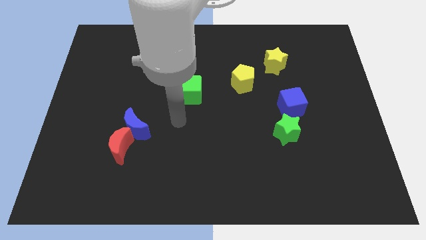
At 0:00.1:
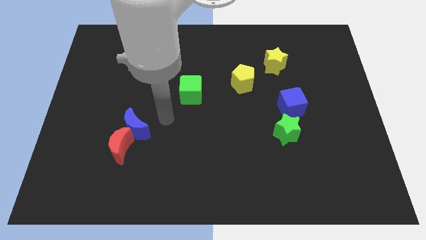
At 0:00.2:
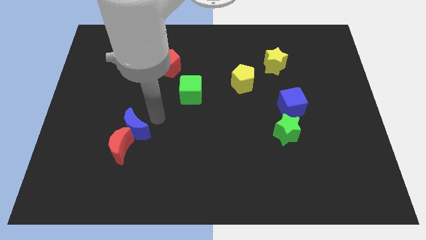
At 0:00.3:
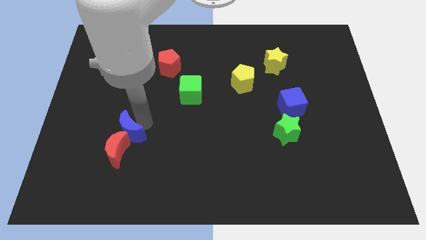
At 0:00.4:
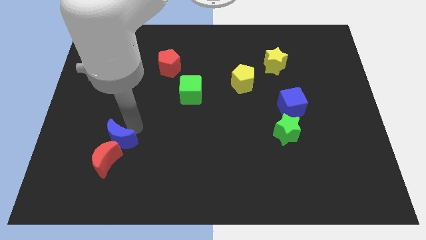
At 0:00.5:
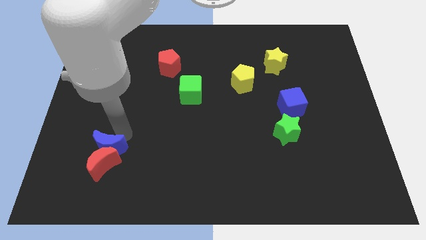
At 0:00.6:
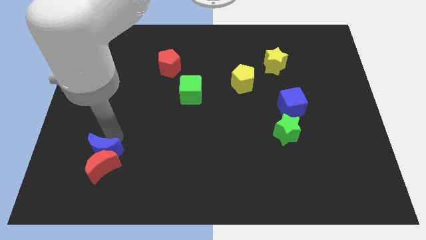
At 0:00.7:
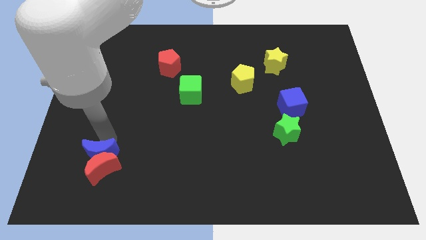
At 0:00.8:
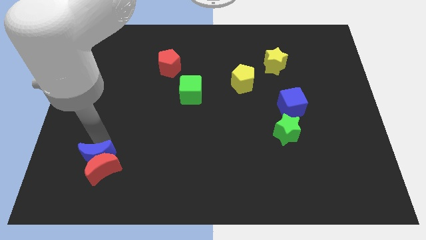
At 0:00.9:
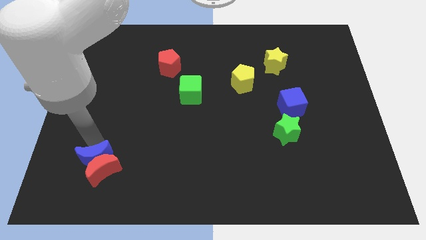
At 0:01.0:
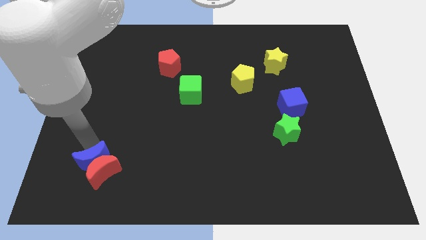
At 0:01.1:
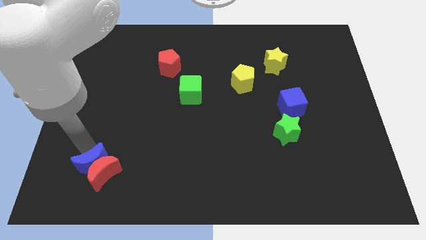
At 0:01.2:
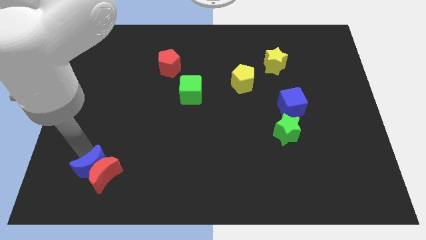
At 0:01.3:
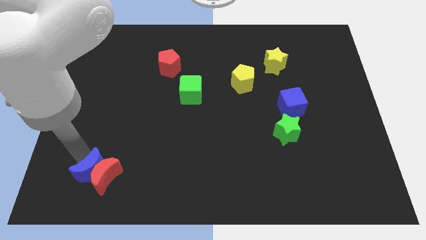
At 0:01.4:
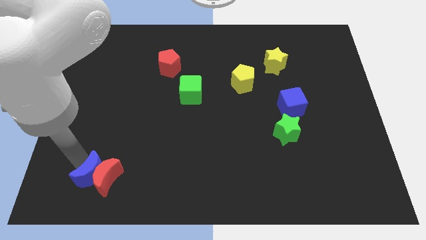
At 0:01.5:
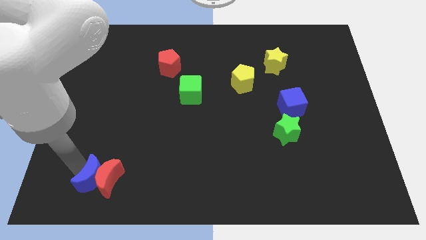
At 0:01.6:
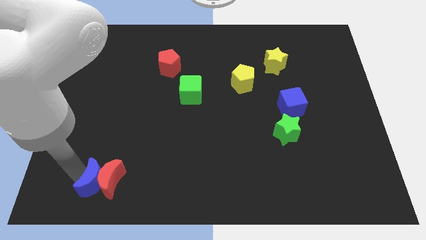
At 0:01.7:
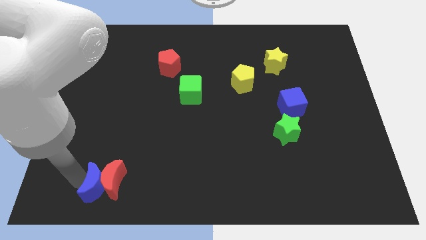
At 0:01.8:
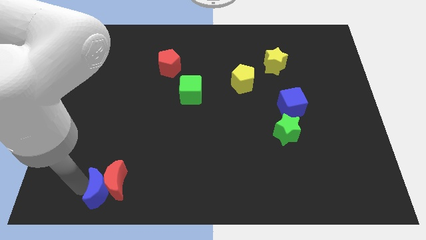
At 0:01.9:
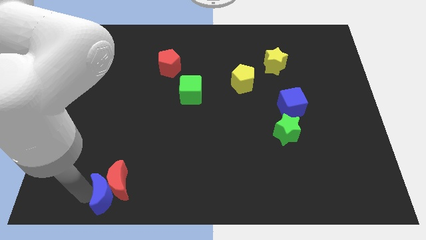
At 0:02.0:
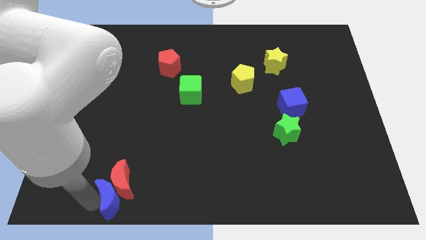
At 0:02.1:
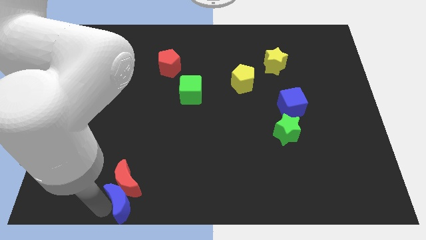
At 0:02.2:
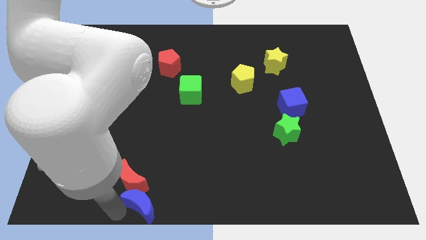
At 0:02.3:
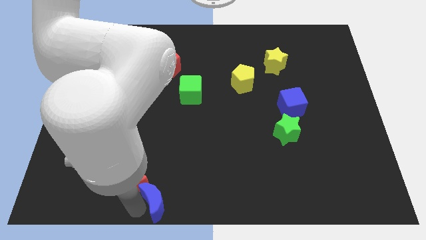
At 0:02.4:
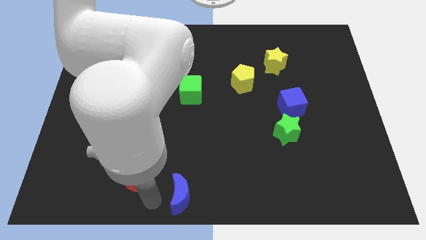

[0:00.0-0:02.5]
pull the red moon apart from the blue moon

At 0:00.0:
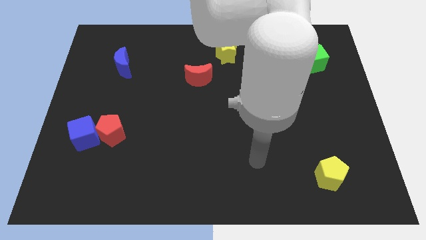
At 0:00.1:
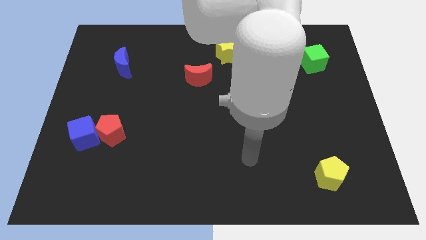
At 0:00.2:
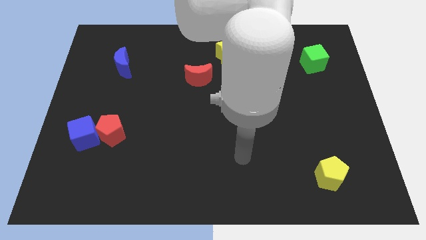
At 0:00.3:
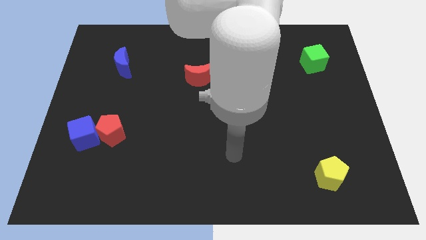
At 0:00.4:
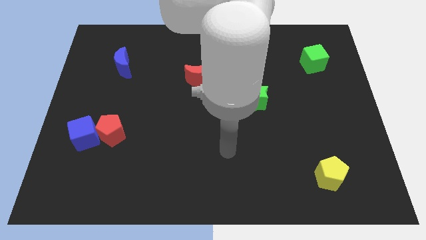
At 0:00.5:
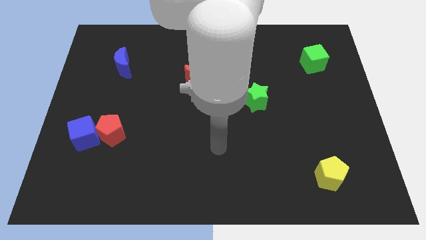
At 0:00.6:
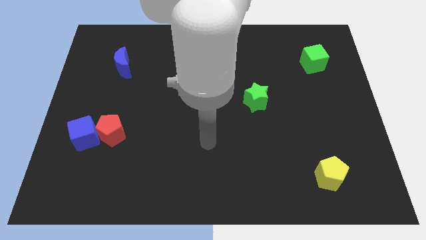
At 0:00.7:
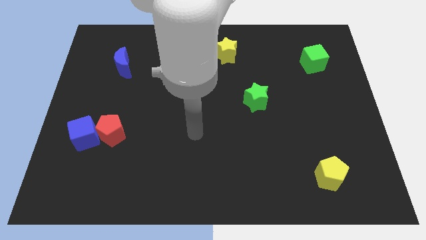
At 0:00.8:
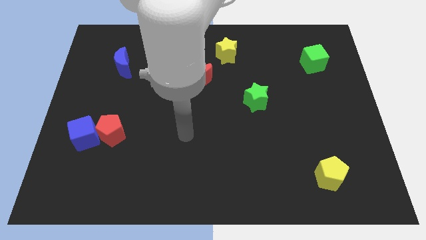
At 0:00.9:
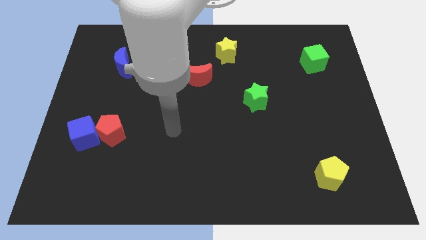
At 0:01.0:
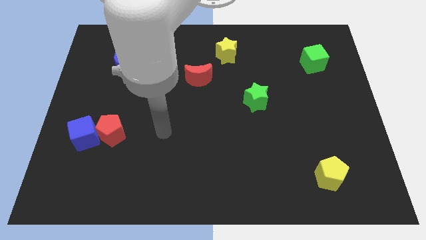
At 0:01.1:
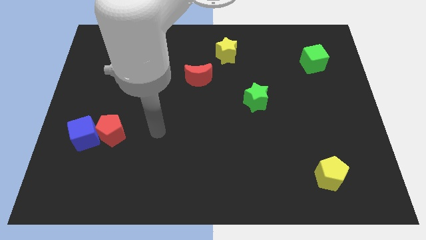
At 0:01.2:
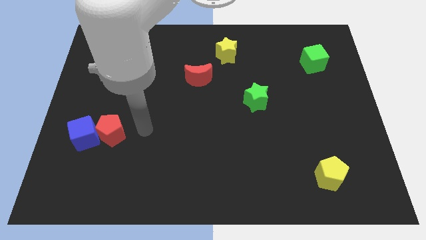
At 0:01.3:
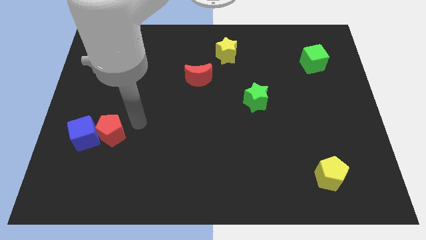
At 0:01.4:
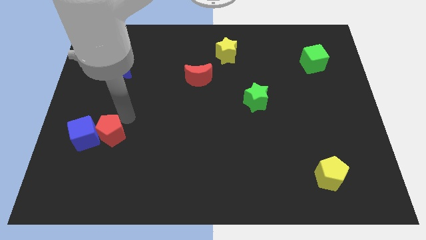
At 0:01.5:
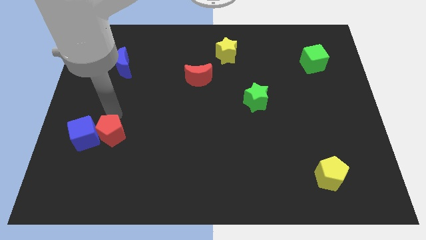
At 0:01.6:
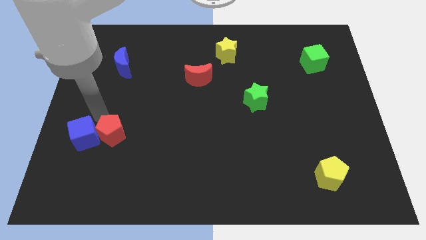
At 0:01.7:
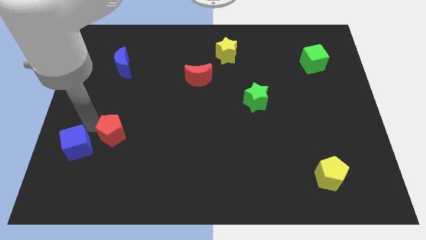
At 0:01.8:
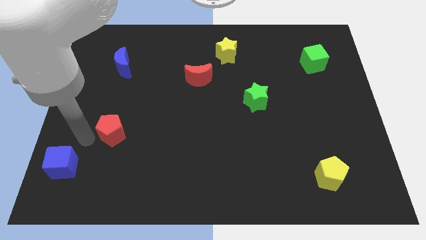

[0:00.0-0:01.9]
separate the red pentagon from the blue cube

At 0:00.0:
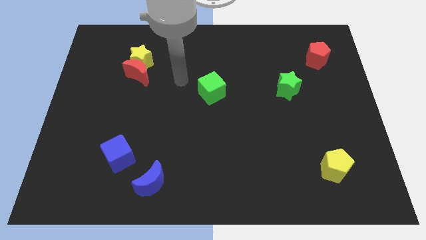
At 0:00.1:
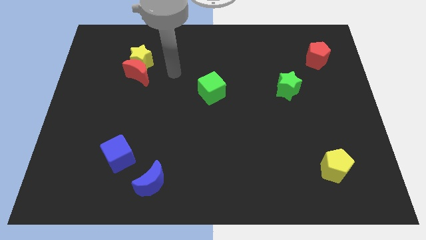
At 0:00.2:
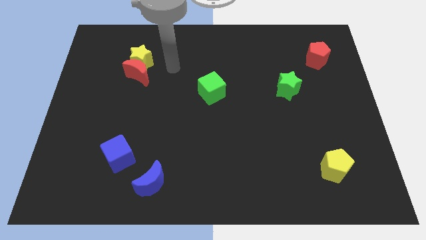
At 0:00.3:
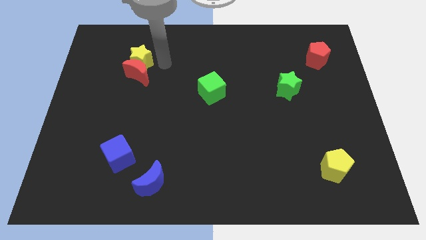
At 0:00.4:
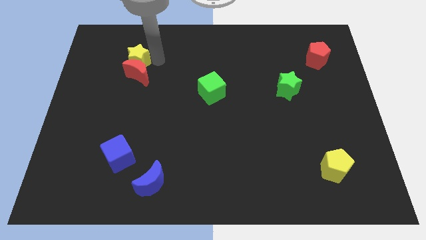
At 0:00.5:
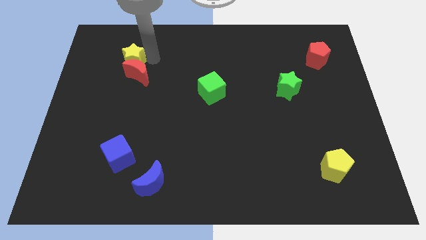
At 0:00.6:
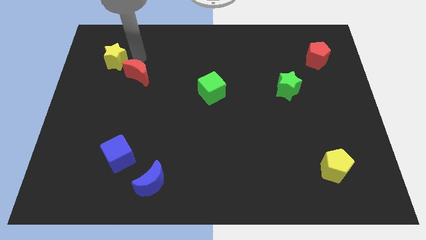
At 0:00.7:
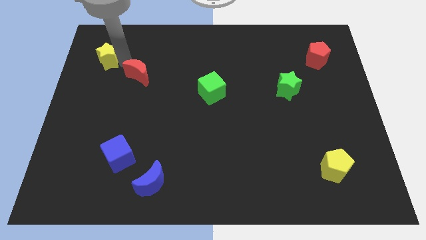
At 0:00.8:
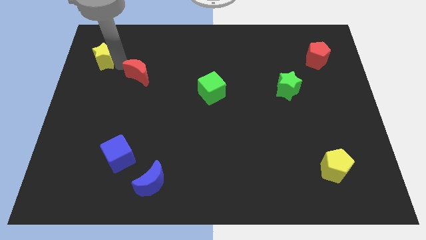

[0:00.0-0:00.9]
move the red moon away from the yellow star

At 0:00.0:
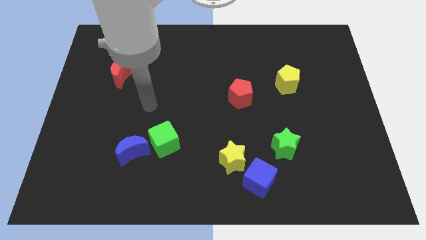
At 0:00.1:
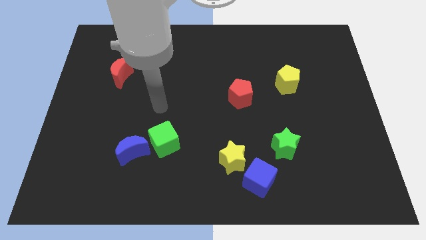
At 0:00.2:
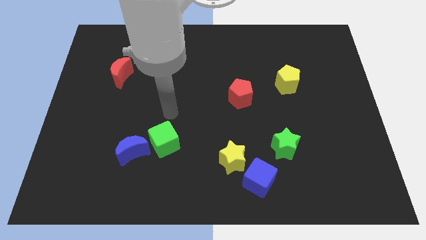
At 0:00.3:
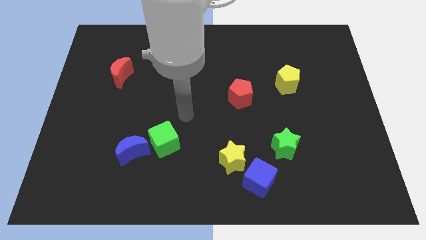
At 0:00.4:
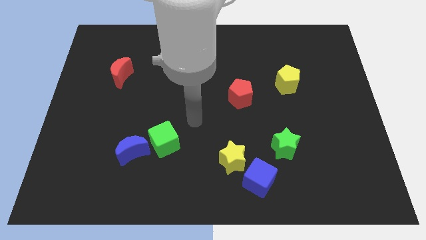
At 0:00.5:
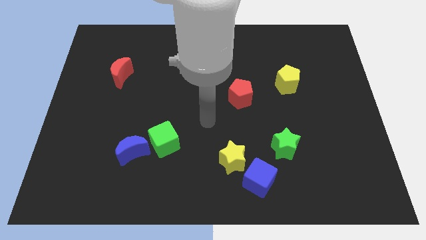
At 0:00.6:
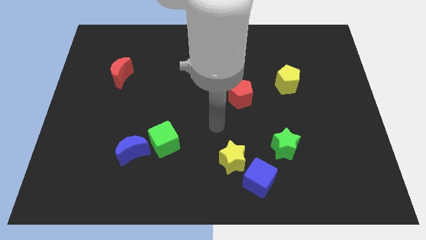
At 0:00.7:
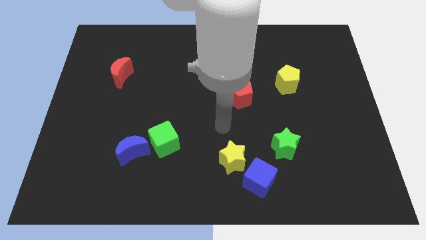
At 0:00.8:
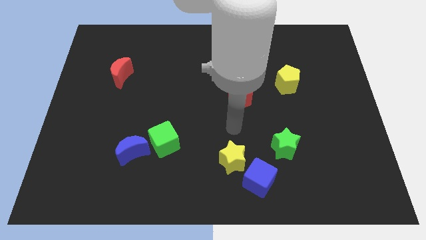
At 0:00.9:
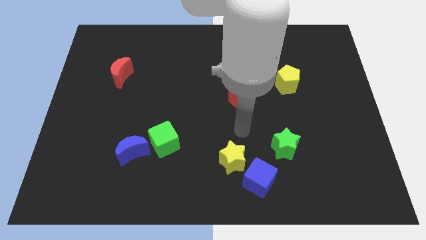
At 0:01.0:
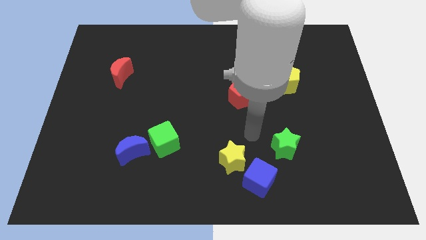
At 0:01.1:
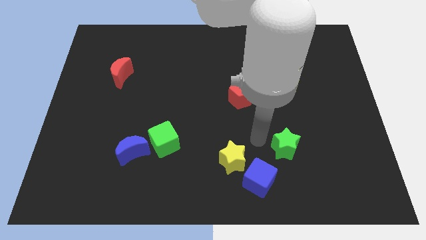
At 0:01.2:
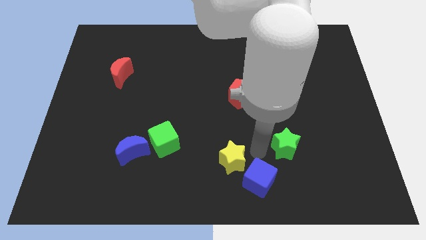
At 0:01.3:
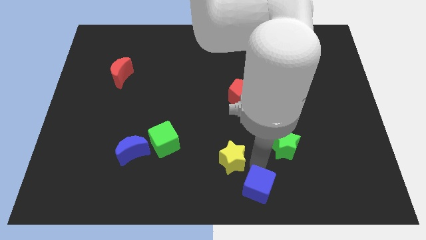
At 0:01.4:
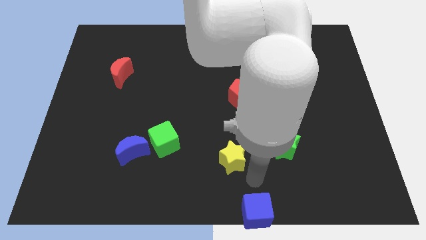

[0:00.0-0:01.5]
pull the yellow star apart from the blue cube

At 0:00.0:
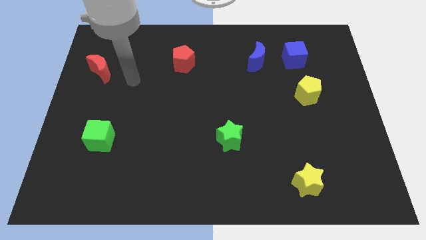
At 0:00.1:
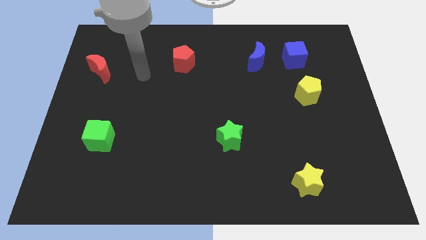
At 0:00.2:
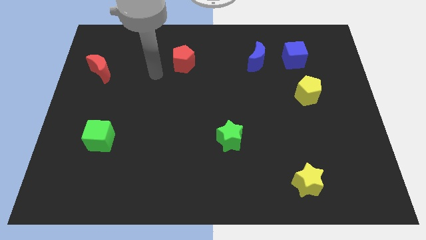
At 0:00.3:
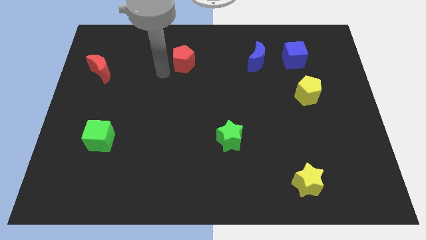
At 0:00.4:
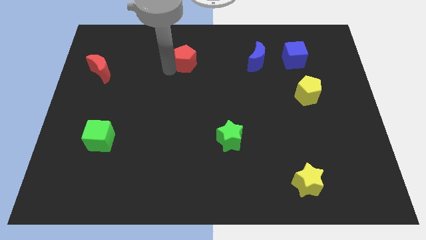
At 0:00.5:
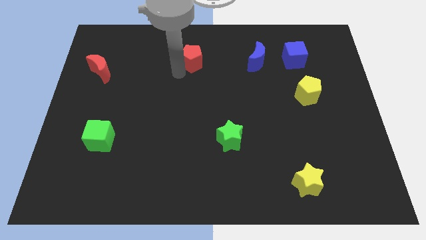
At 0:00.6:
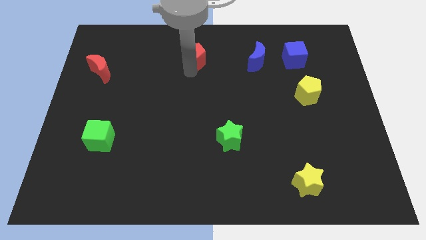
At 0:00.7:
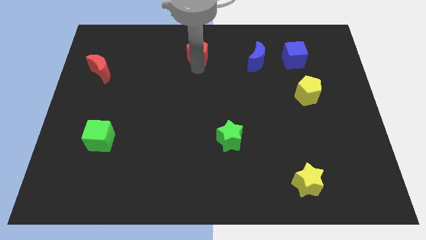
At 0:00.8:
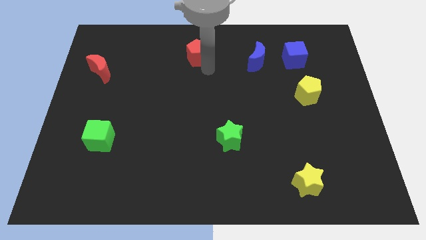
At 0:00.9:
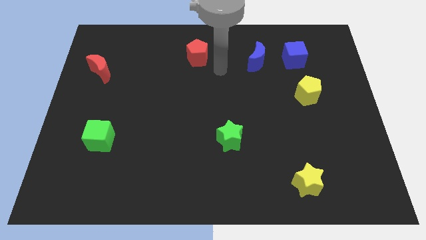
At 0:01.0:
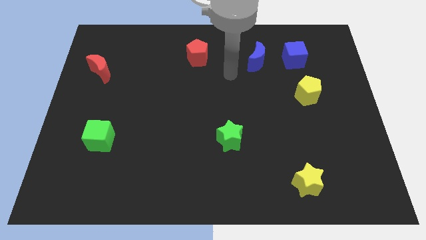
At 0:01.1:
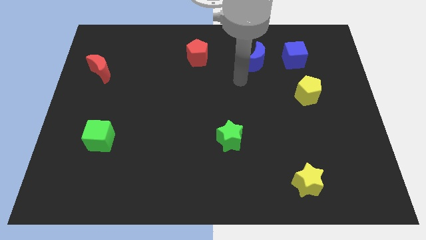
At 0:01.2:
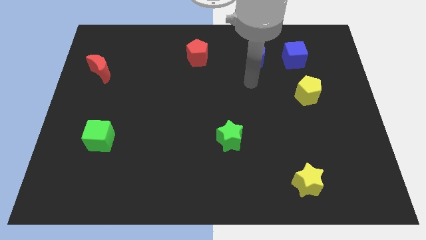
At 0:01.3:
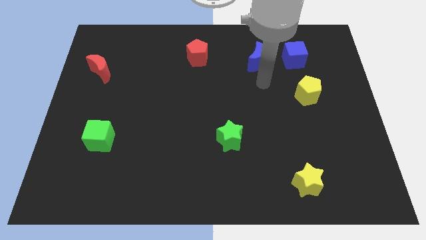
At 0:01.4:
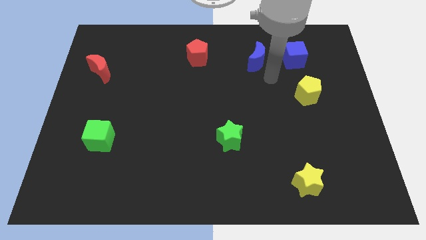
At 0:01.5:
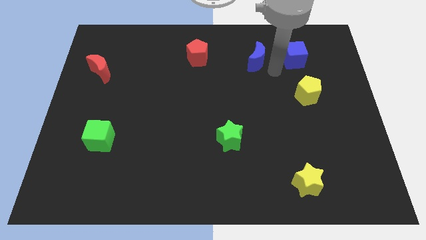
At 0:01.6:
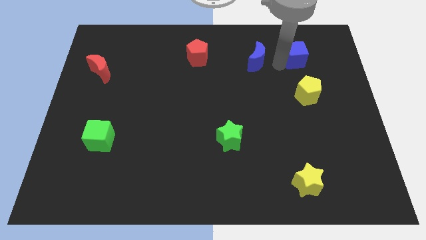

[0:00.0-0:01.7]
separate the blue moon from the blue cube

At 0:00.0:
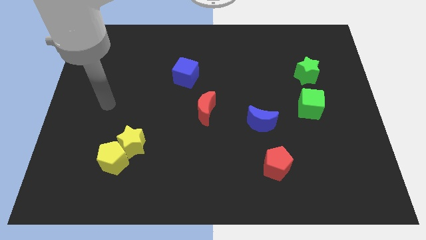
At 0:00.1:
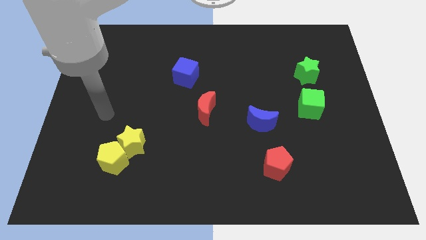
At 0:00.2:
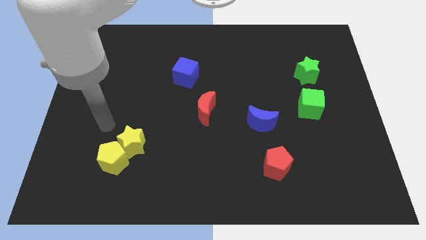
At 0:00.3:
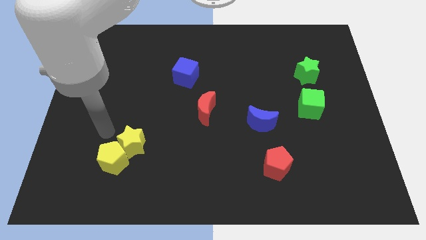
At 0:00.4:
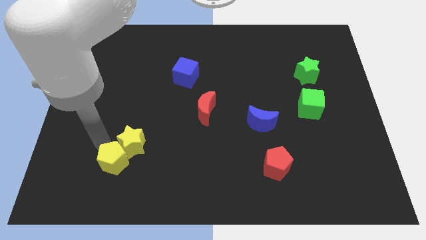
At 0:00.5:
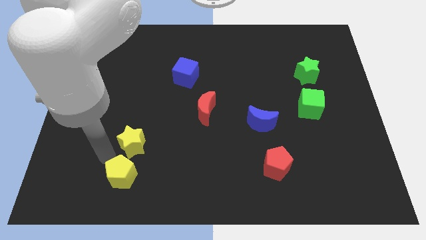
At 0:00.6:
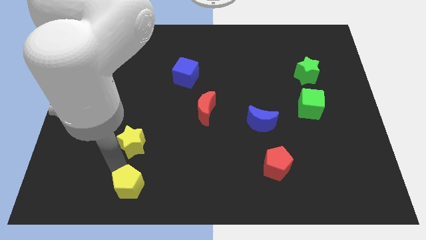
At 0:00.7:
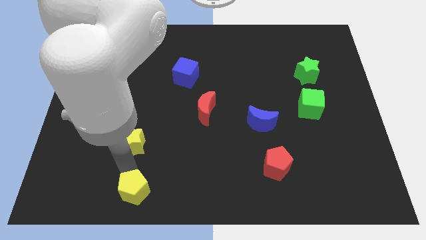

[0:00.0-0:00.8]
move the yellow star away from the yellow pentagon
